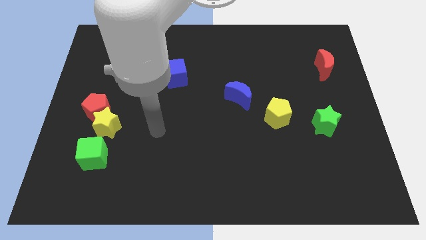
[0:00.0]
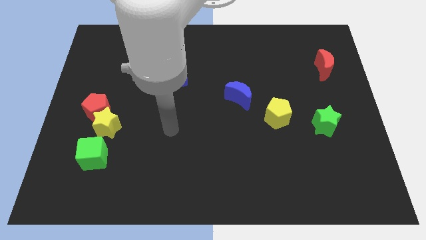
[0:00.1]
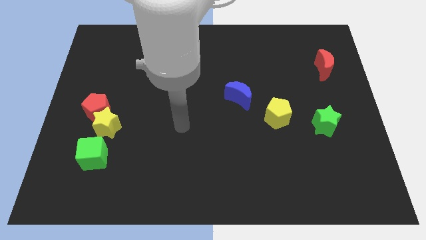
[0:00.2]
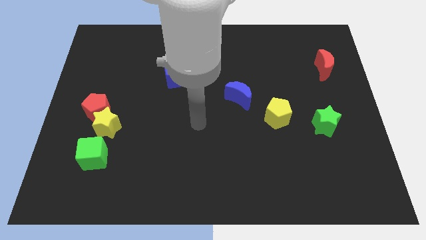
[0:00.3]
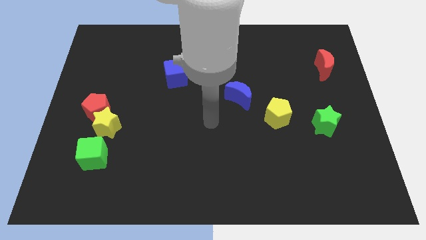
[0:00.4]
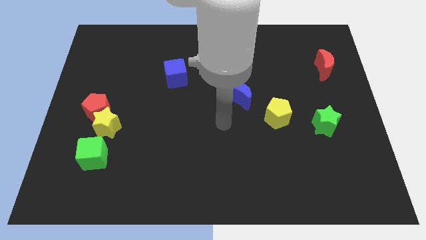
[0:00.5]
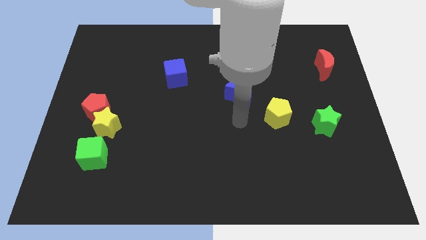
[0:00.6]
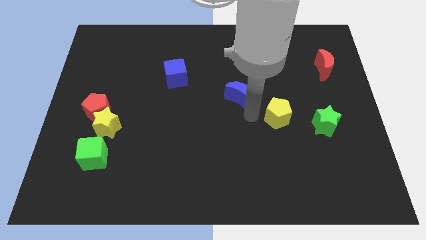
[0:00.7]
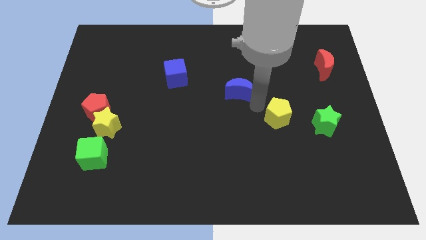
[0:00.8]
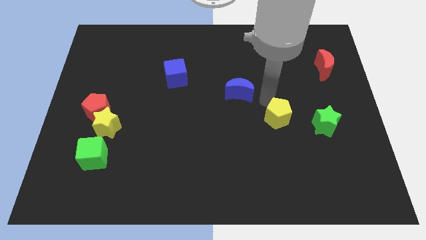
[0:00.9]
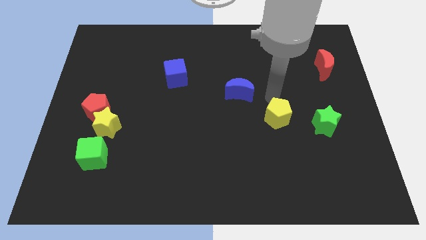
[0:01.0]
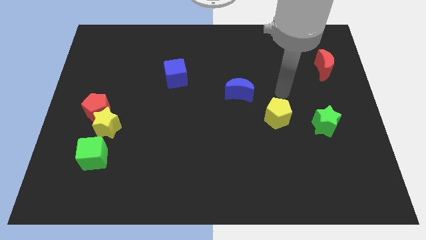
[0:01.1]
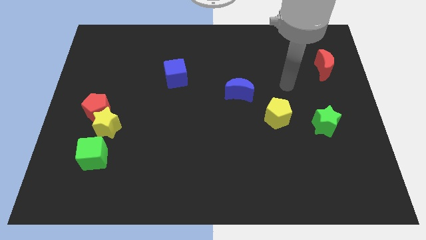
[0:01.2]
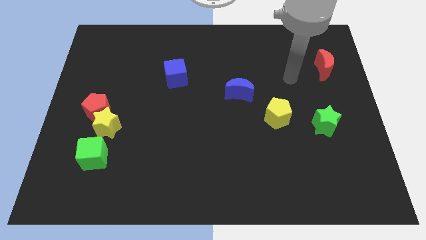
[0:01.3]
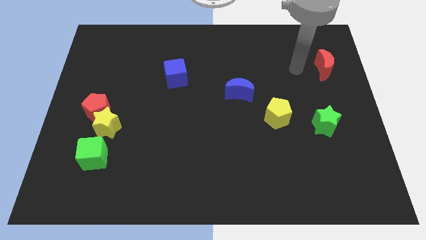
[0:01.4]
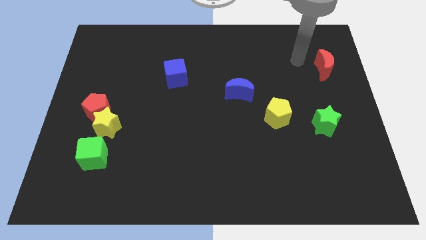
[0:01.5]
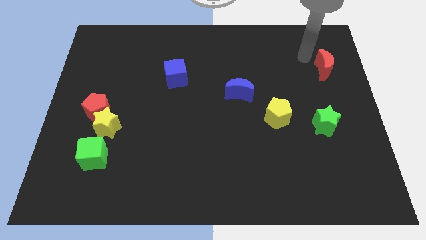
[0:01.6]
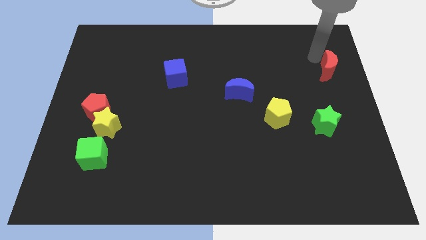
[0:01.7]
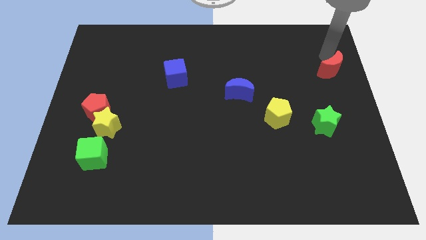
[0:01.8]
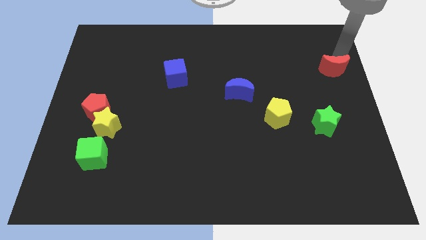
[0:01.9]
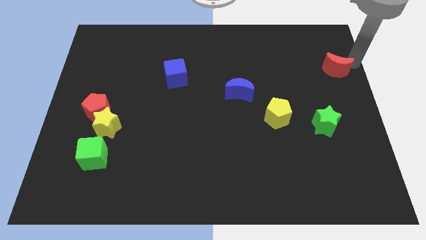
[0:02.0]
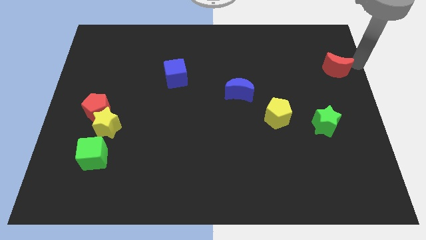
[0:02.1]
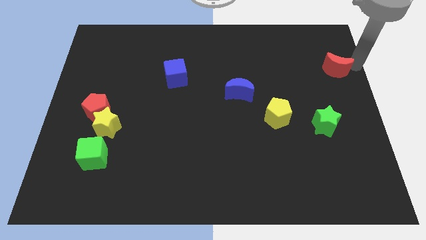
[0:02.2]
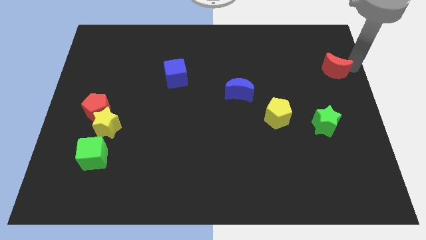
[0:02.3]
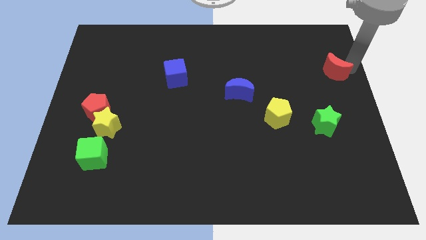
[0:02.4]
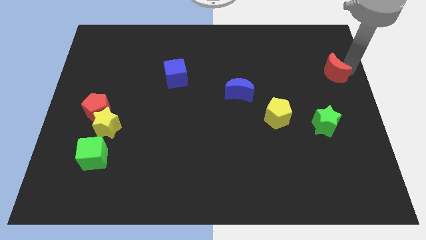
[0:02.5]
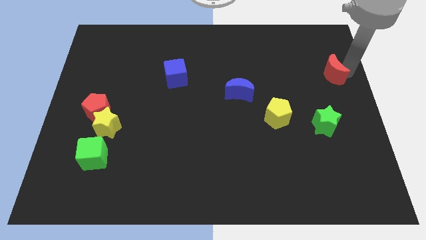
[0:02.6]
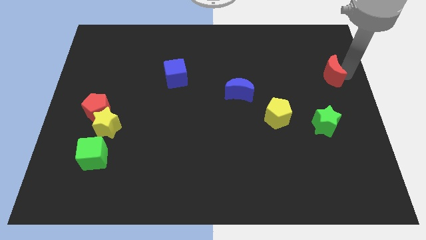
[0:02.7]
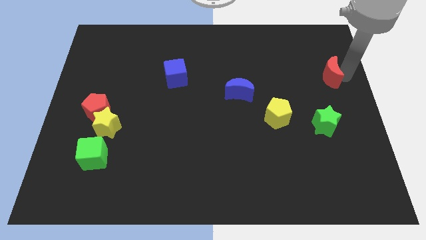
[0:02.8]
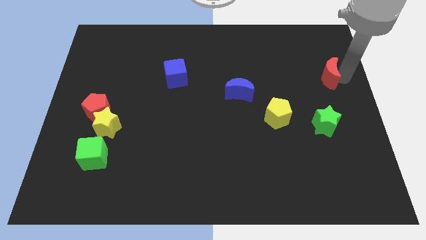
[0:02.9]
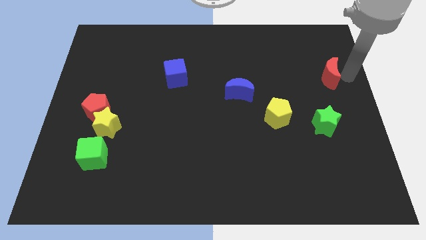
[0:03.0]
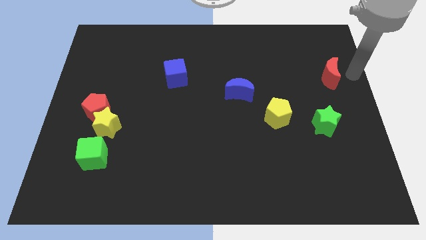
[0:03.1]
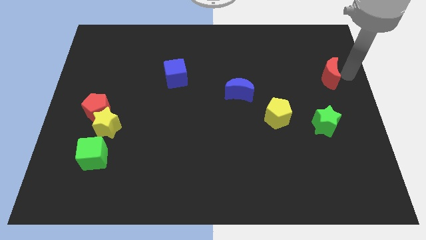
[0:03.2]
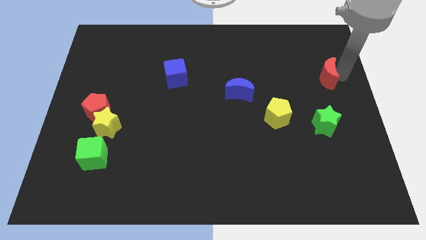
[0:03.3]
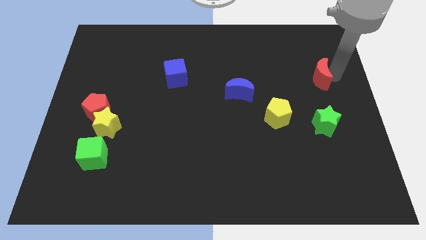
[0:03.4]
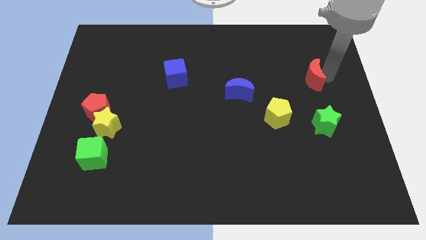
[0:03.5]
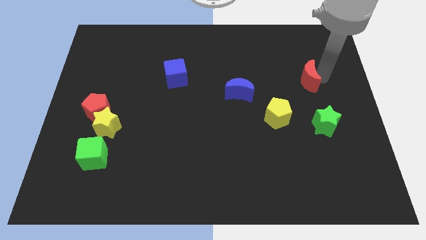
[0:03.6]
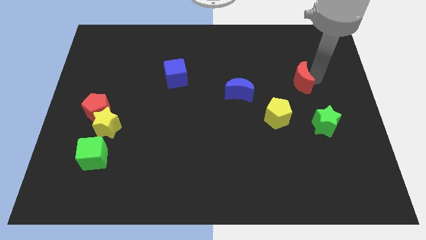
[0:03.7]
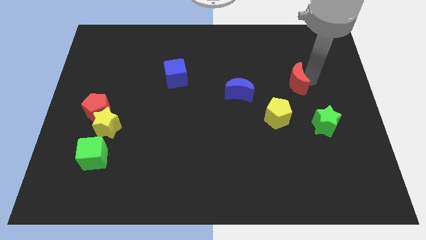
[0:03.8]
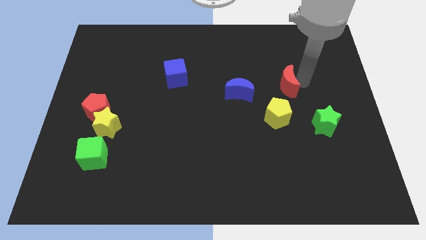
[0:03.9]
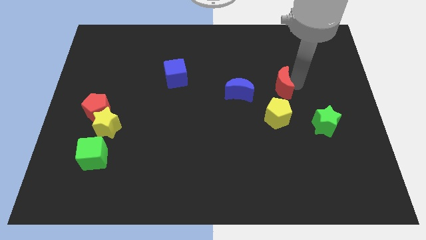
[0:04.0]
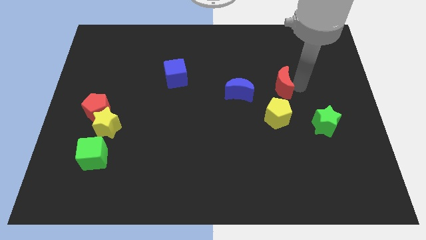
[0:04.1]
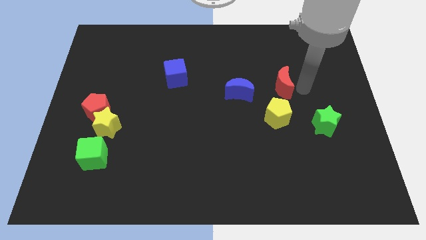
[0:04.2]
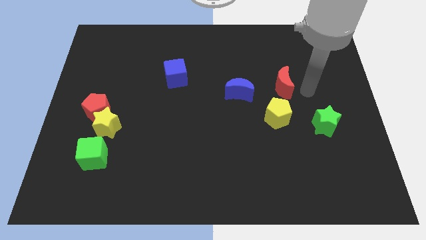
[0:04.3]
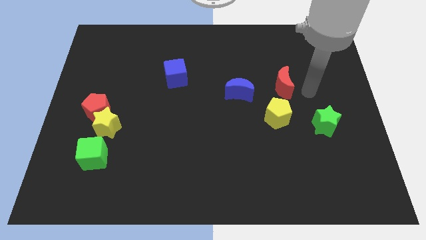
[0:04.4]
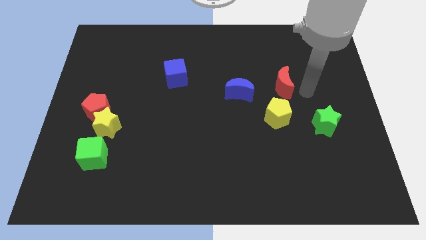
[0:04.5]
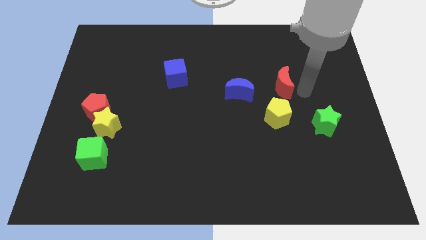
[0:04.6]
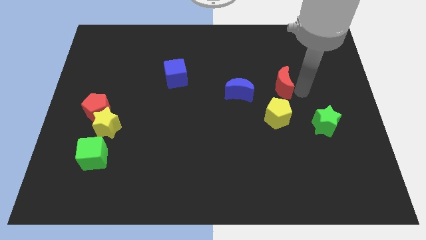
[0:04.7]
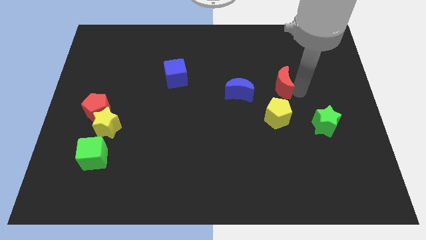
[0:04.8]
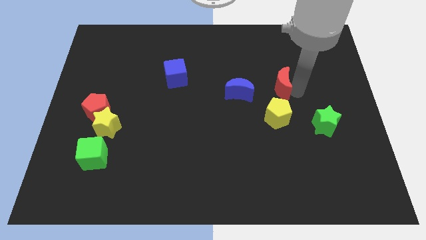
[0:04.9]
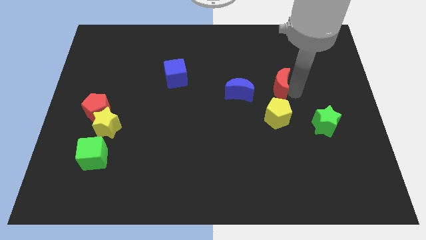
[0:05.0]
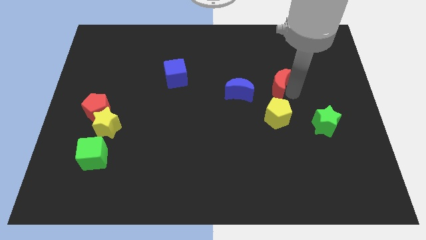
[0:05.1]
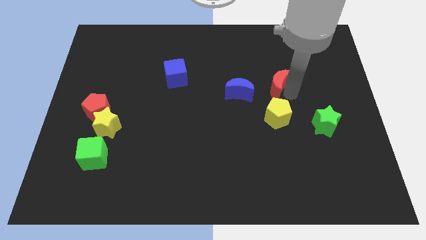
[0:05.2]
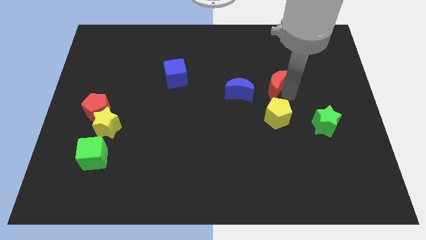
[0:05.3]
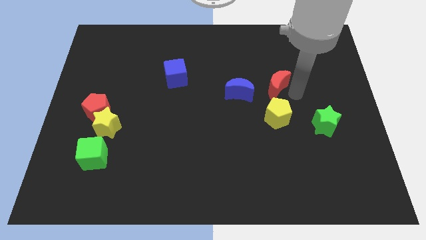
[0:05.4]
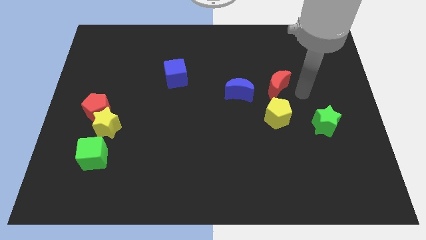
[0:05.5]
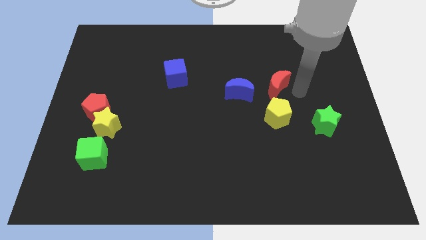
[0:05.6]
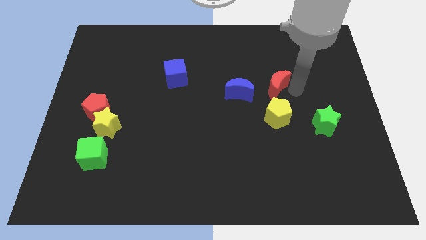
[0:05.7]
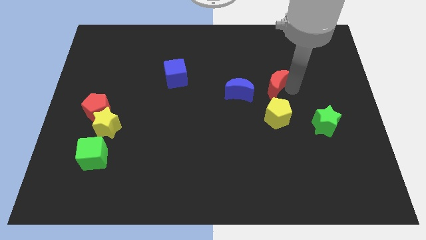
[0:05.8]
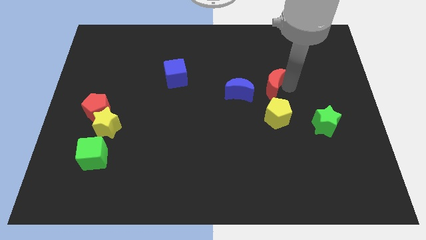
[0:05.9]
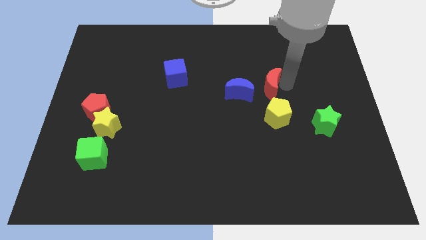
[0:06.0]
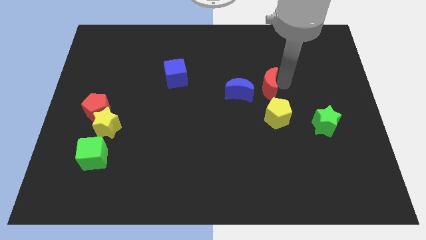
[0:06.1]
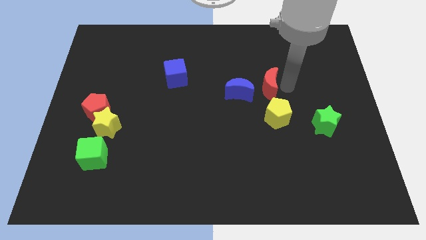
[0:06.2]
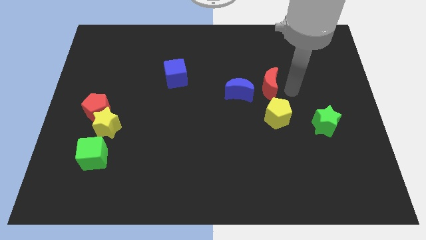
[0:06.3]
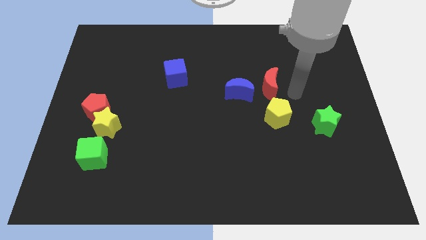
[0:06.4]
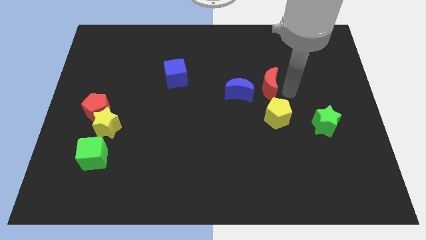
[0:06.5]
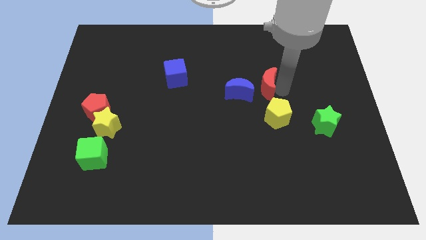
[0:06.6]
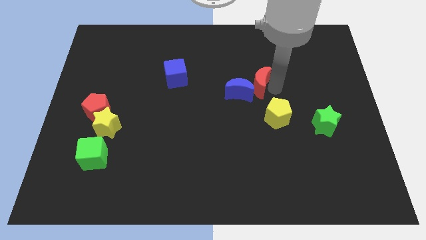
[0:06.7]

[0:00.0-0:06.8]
push the red moon to the middle of the board
